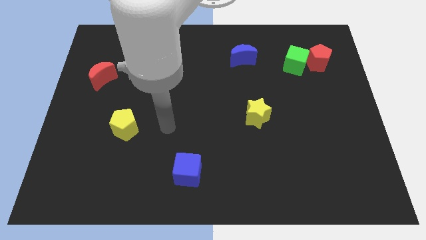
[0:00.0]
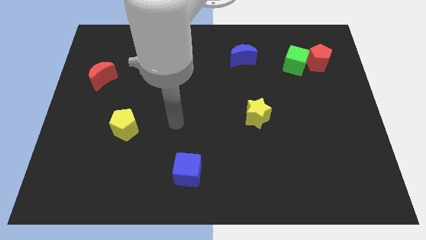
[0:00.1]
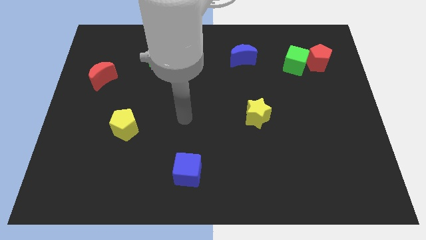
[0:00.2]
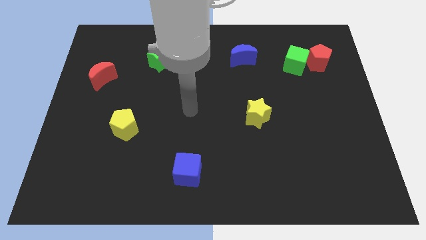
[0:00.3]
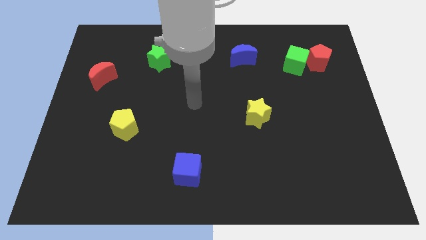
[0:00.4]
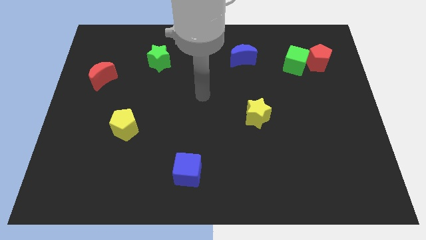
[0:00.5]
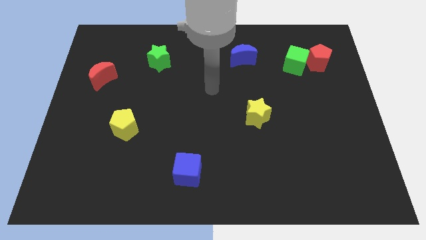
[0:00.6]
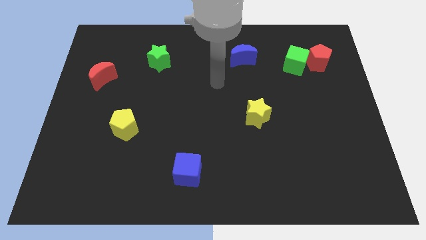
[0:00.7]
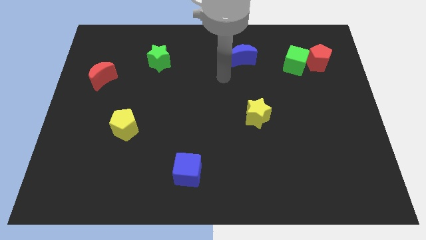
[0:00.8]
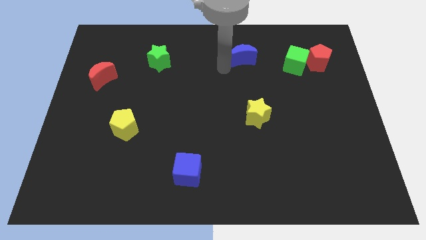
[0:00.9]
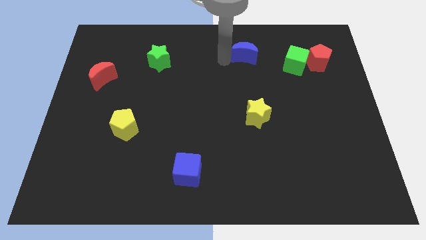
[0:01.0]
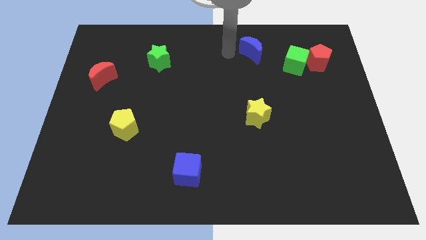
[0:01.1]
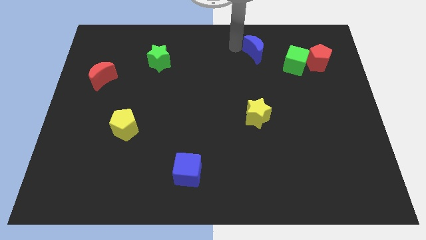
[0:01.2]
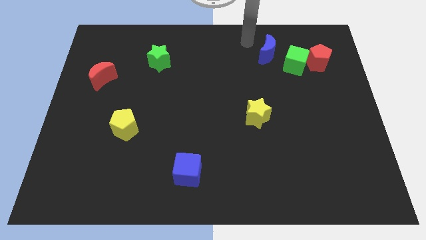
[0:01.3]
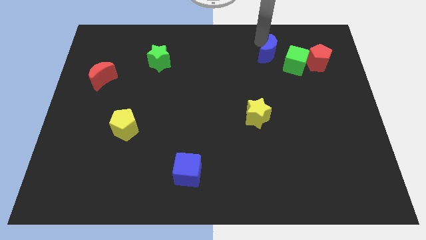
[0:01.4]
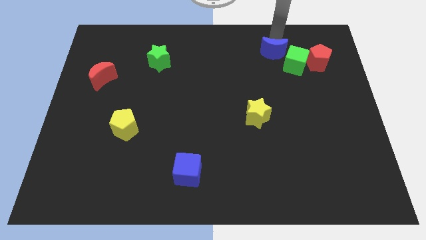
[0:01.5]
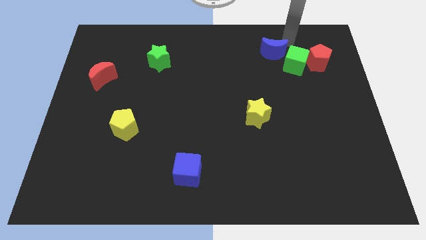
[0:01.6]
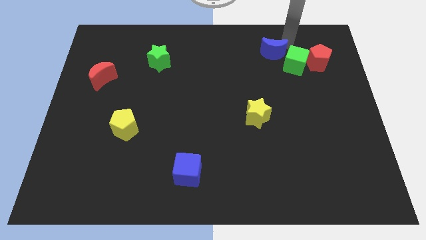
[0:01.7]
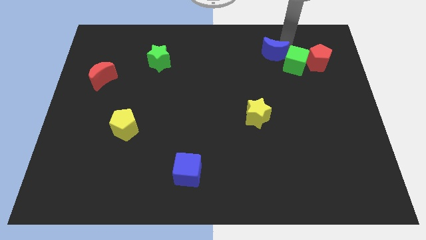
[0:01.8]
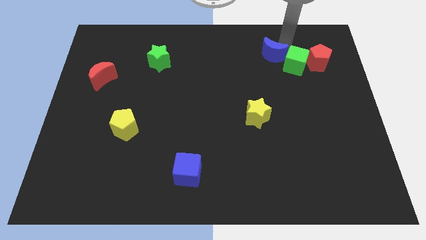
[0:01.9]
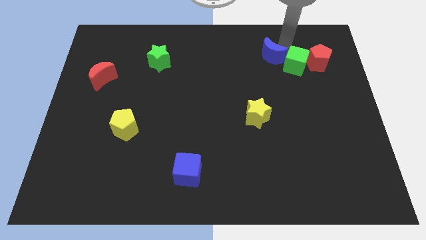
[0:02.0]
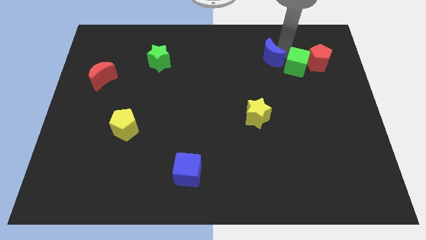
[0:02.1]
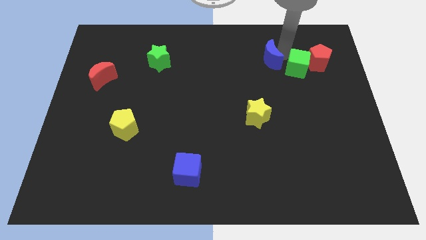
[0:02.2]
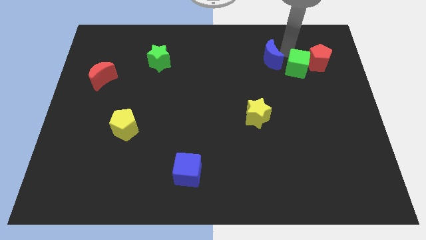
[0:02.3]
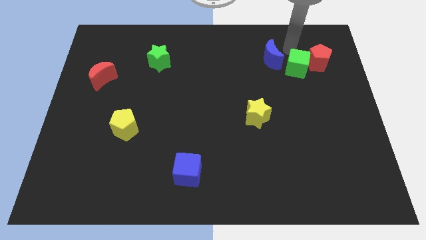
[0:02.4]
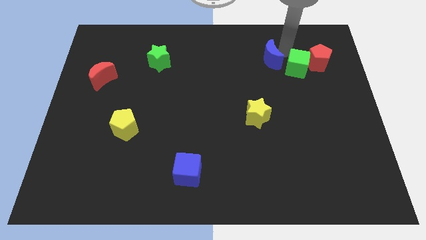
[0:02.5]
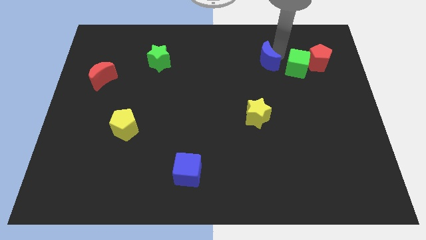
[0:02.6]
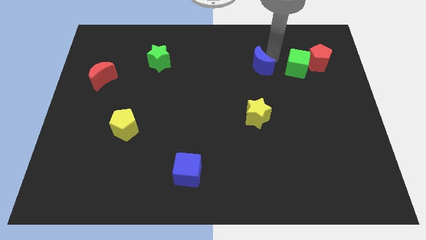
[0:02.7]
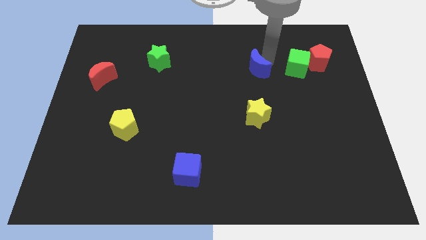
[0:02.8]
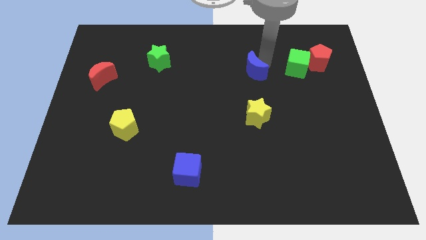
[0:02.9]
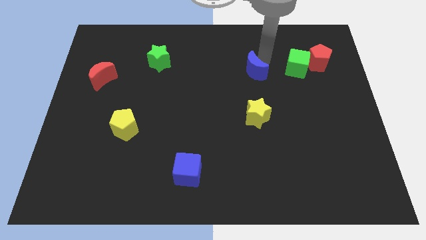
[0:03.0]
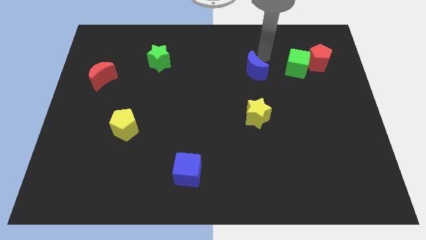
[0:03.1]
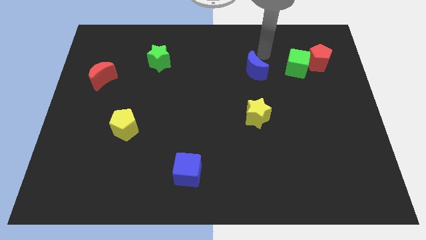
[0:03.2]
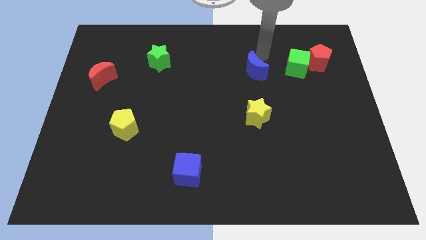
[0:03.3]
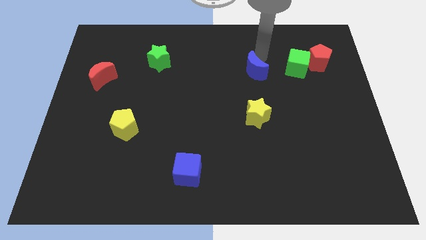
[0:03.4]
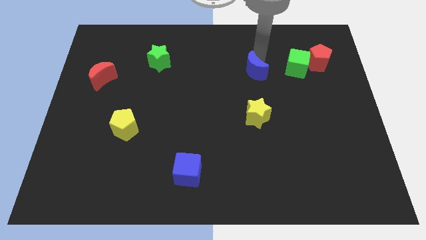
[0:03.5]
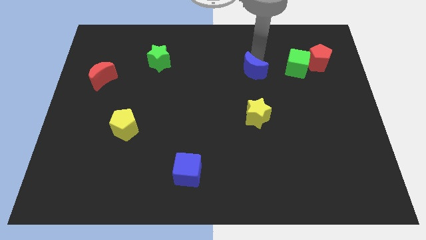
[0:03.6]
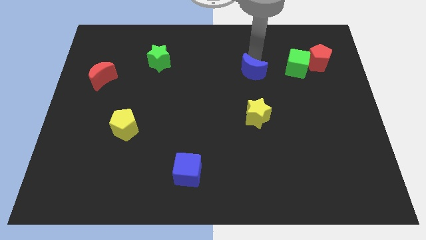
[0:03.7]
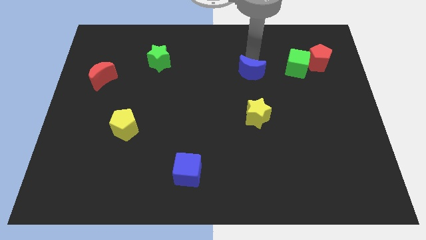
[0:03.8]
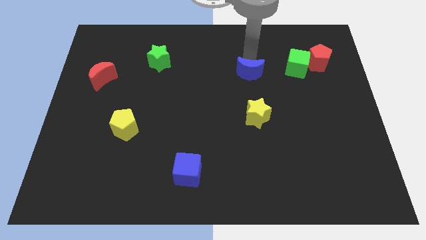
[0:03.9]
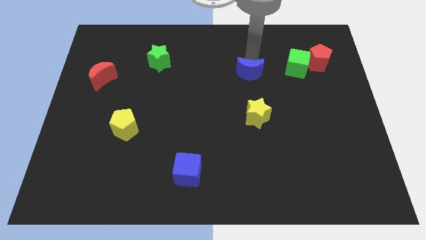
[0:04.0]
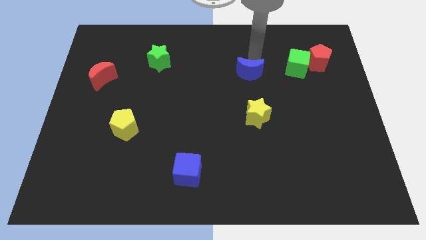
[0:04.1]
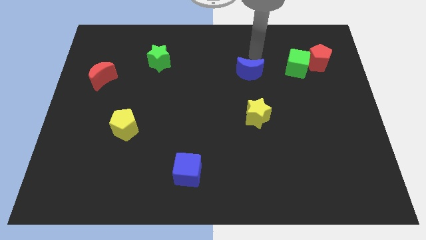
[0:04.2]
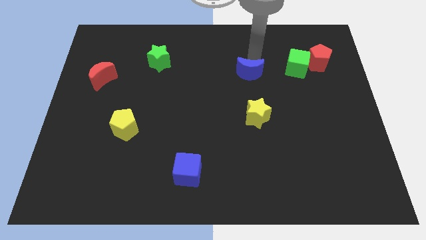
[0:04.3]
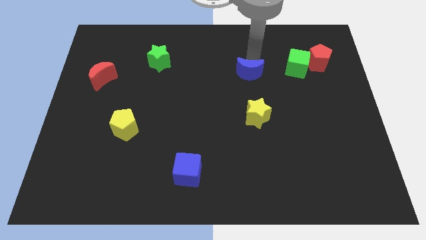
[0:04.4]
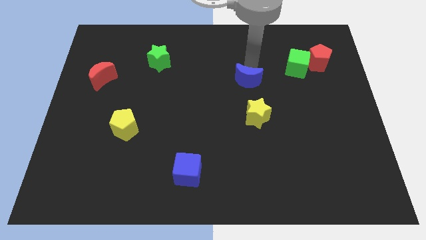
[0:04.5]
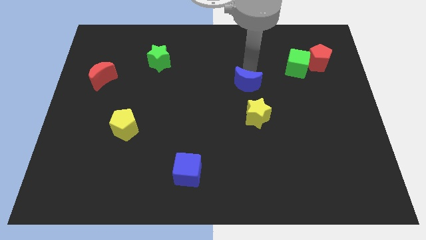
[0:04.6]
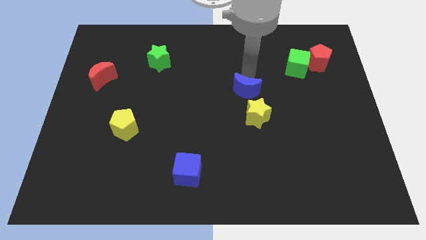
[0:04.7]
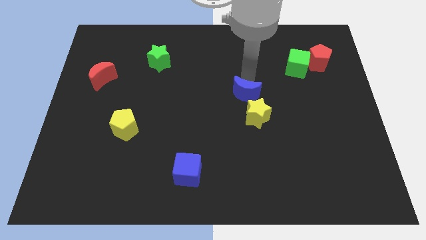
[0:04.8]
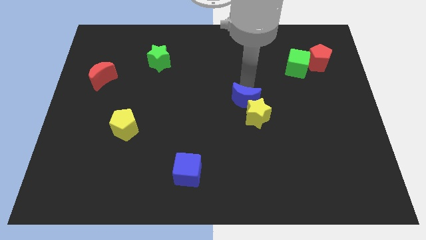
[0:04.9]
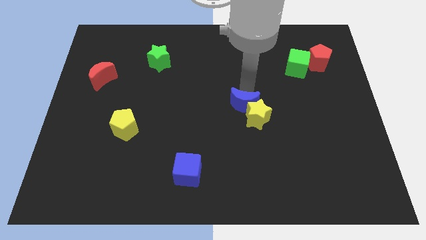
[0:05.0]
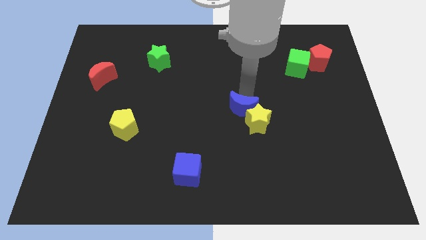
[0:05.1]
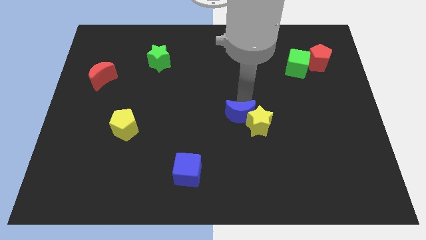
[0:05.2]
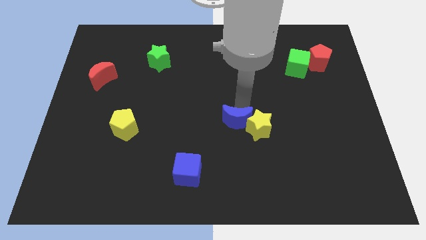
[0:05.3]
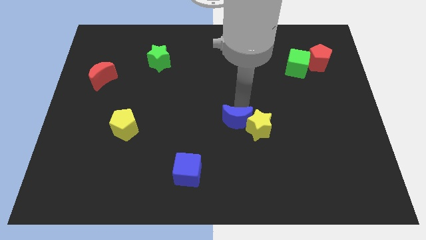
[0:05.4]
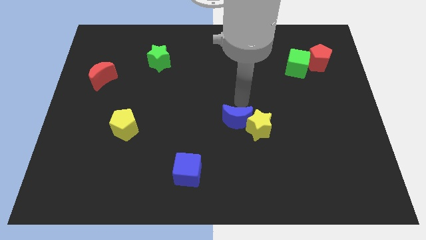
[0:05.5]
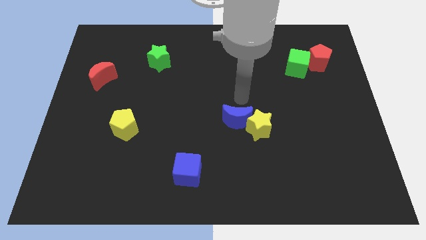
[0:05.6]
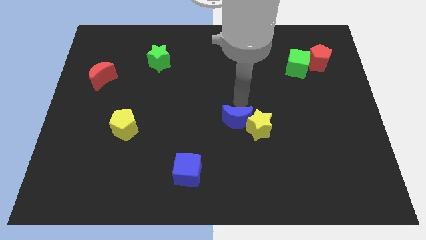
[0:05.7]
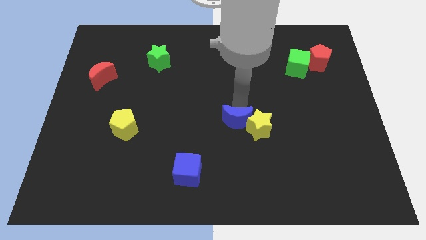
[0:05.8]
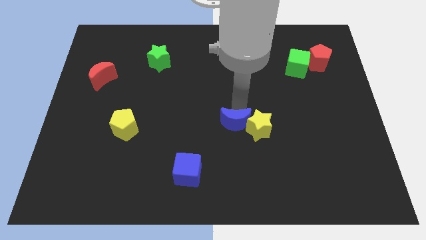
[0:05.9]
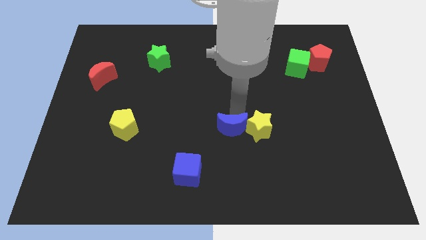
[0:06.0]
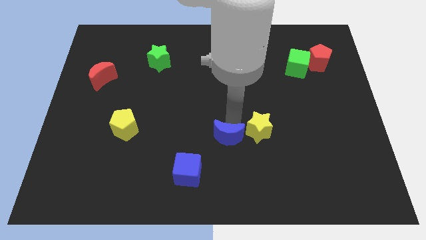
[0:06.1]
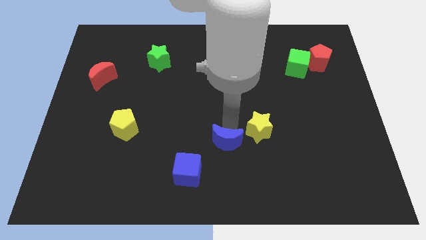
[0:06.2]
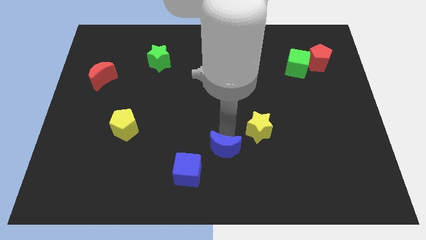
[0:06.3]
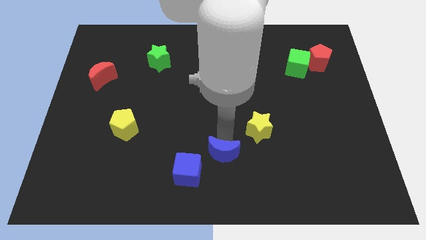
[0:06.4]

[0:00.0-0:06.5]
push the blue moon to the bottom
